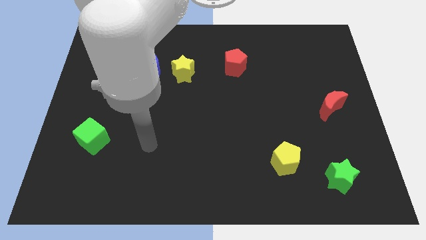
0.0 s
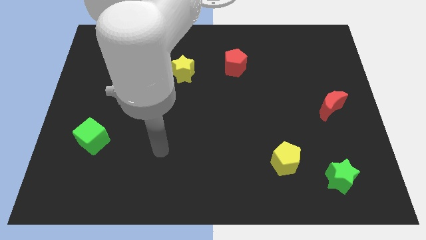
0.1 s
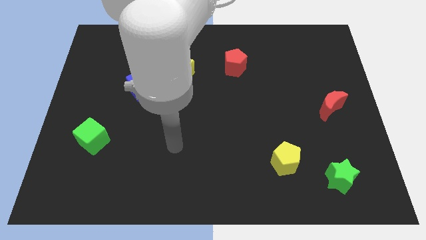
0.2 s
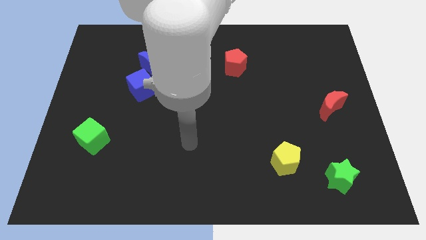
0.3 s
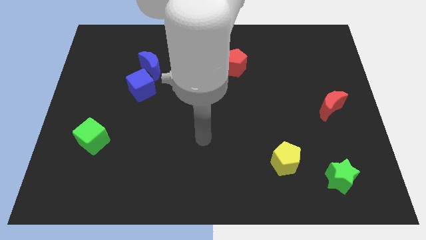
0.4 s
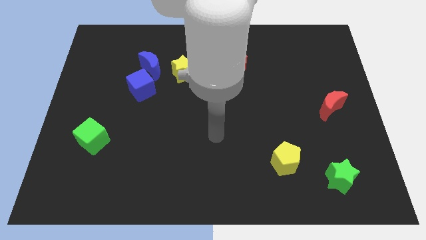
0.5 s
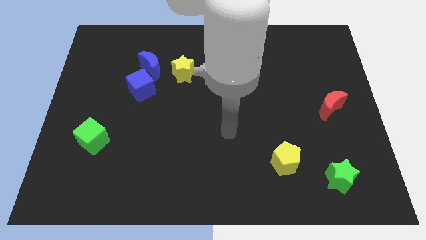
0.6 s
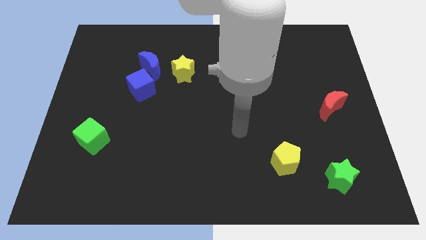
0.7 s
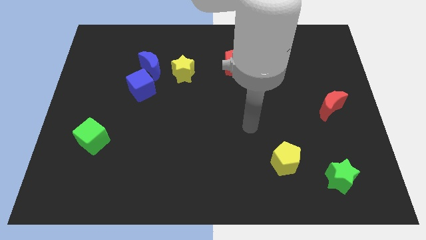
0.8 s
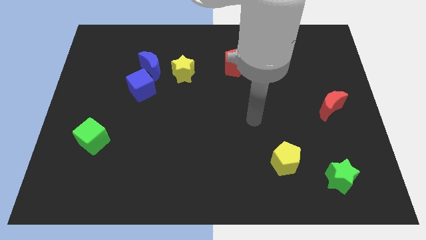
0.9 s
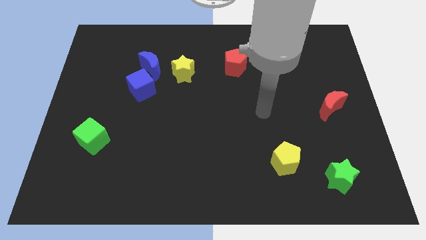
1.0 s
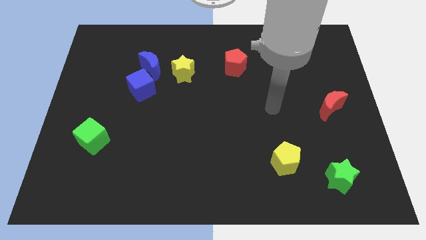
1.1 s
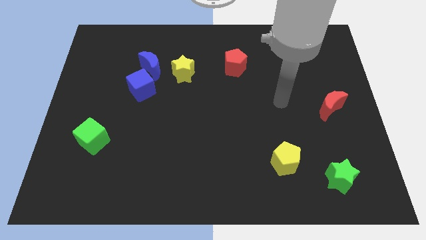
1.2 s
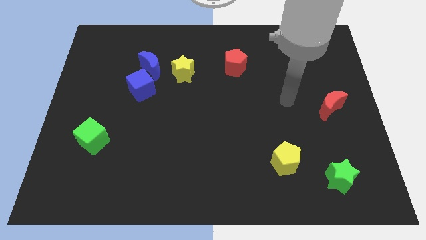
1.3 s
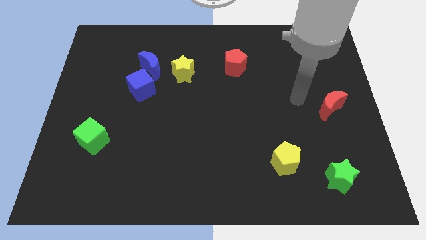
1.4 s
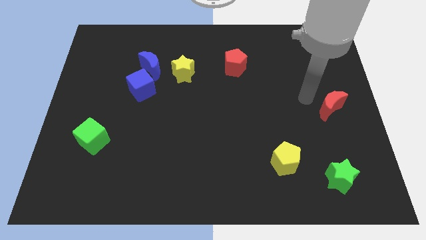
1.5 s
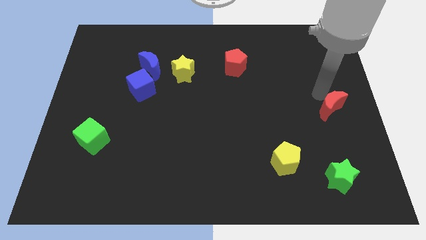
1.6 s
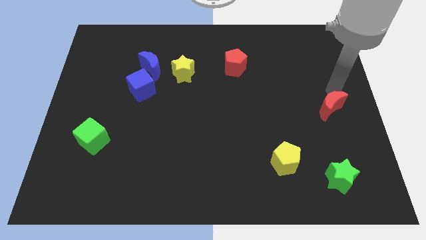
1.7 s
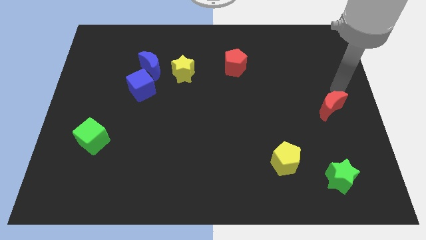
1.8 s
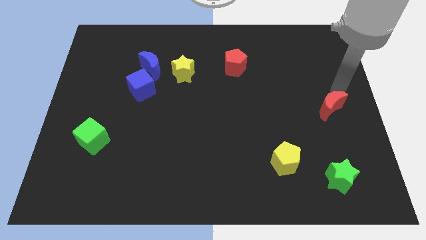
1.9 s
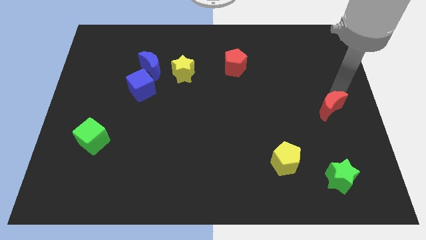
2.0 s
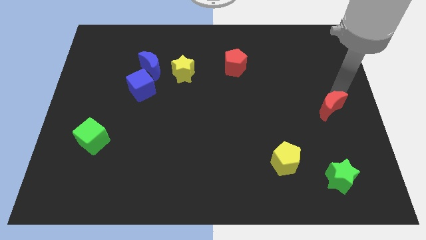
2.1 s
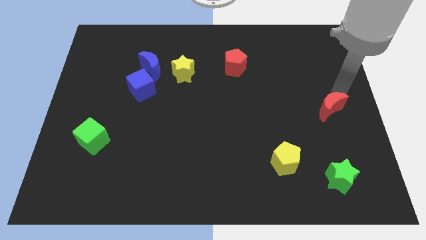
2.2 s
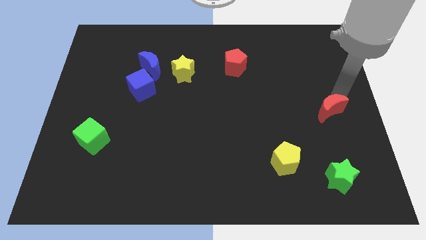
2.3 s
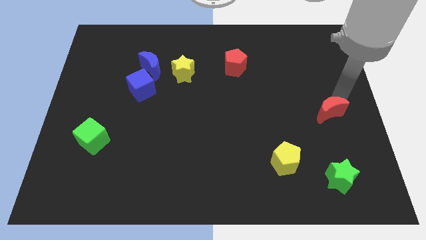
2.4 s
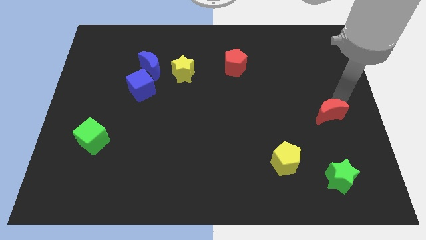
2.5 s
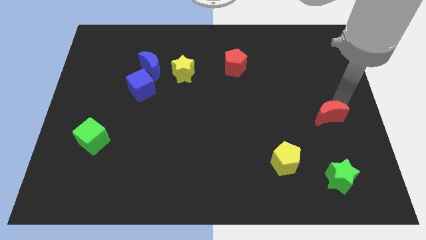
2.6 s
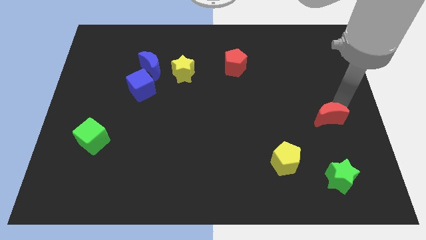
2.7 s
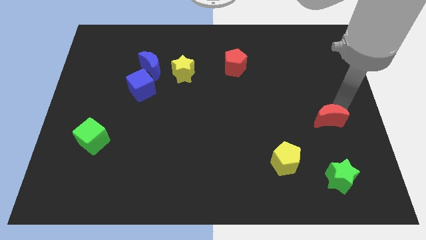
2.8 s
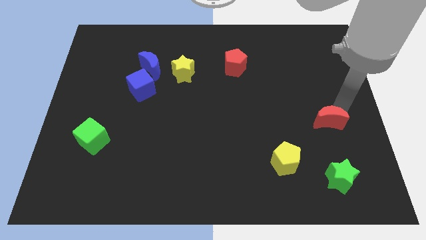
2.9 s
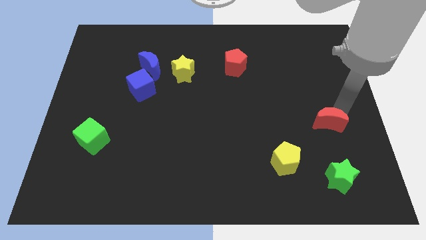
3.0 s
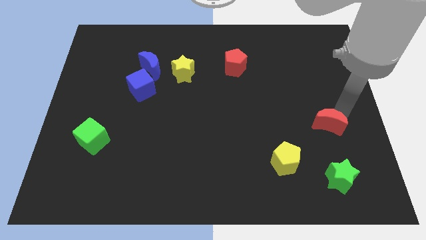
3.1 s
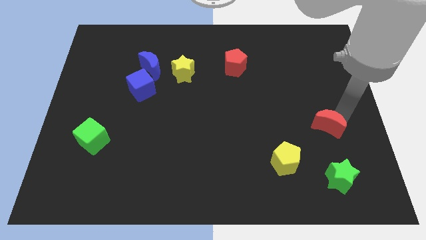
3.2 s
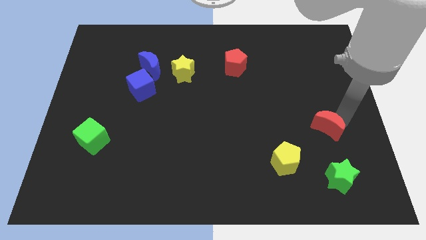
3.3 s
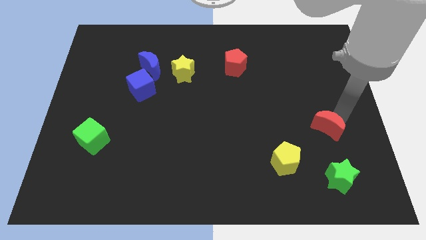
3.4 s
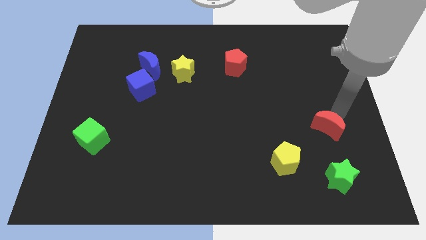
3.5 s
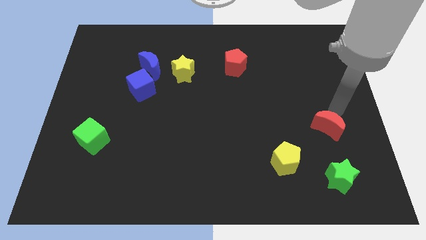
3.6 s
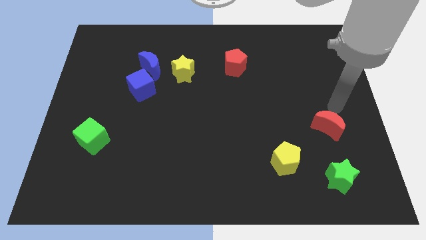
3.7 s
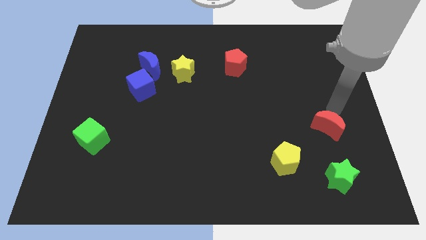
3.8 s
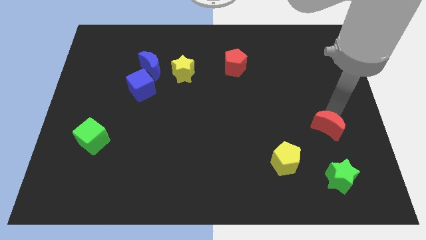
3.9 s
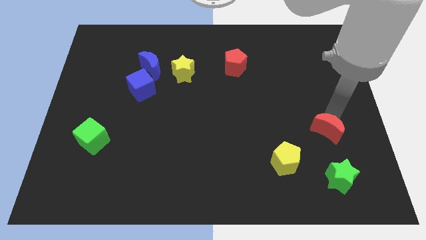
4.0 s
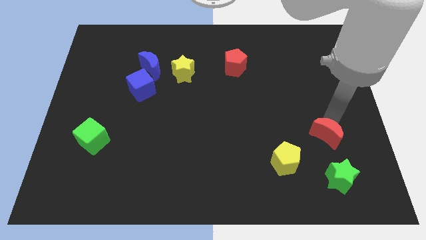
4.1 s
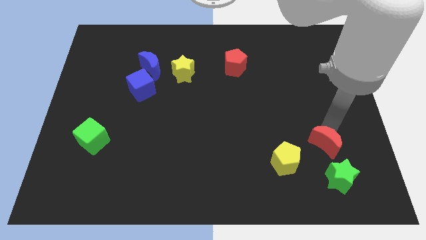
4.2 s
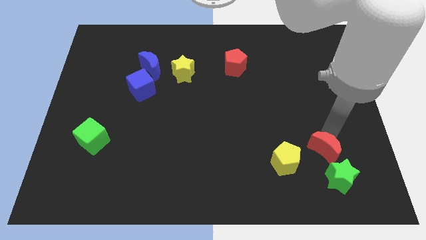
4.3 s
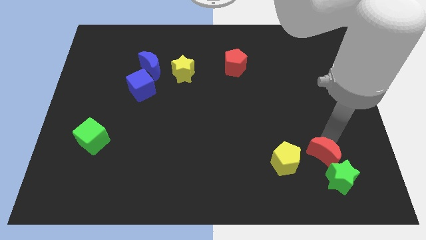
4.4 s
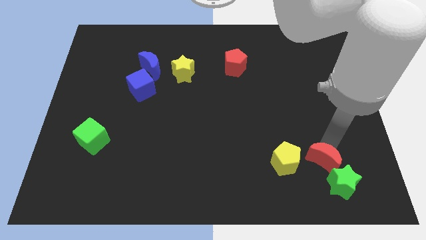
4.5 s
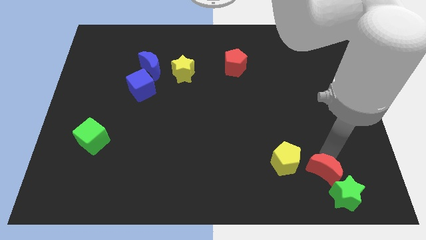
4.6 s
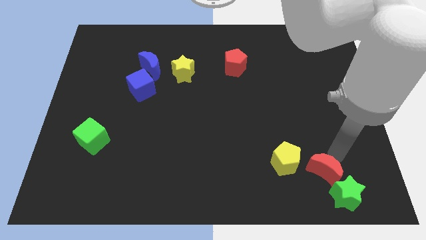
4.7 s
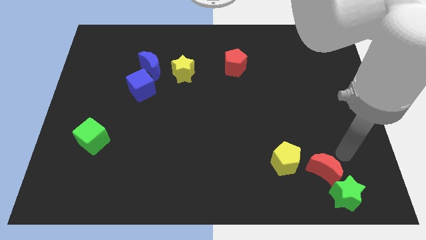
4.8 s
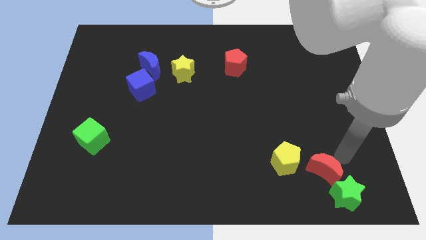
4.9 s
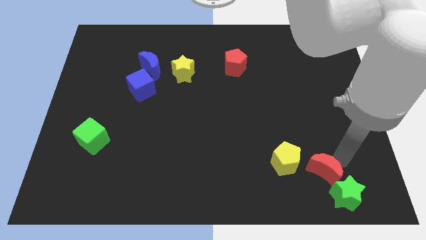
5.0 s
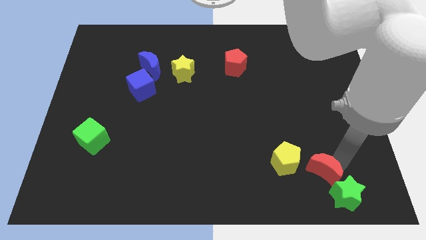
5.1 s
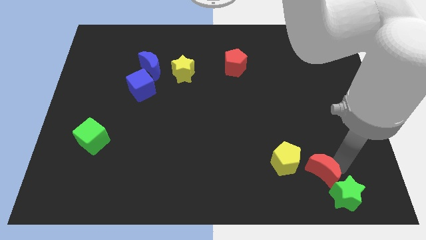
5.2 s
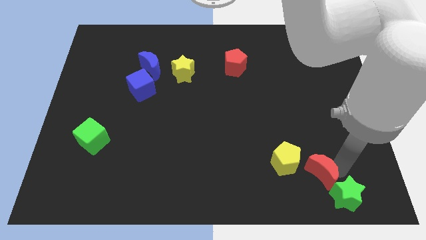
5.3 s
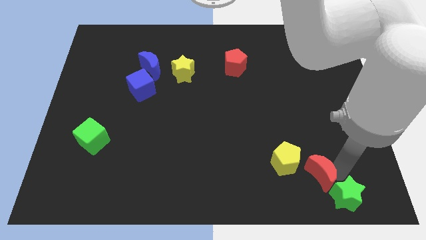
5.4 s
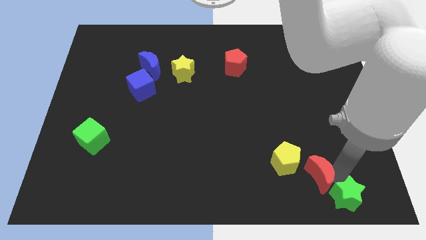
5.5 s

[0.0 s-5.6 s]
push the red moon to the left side of the green star

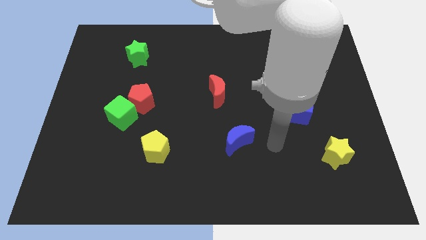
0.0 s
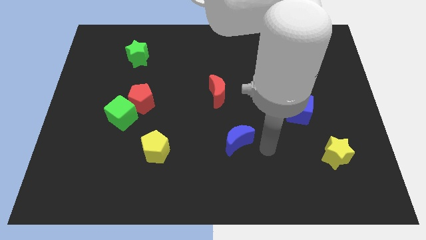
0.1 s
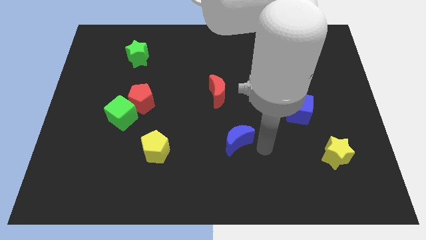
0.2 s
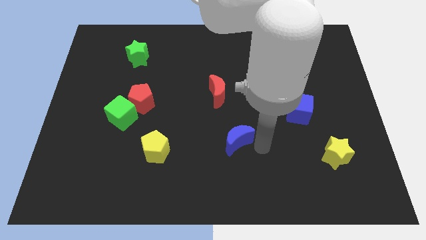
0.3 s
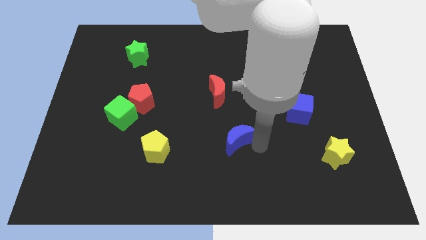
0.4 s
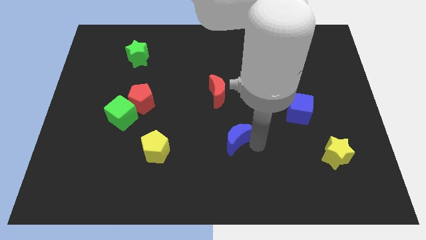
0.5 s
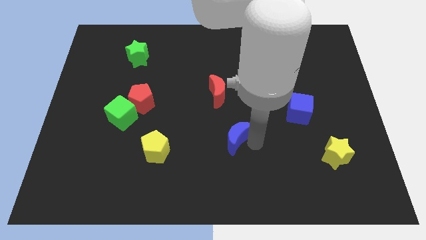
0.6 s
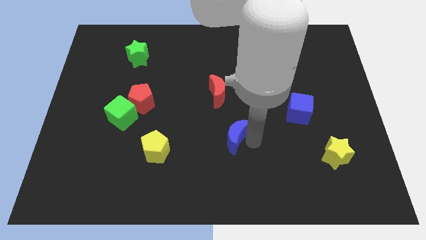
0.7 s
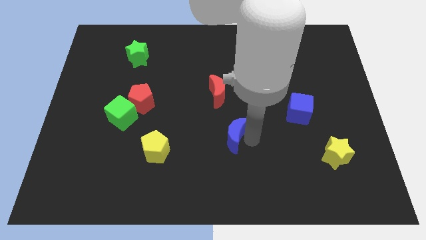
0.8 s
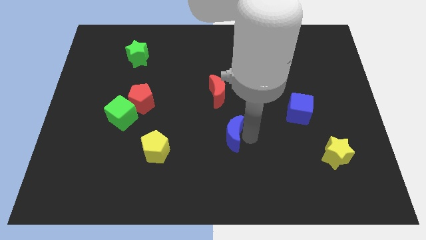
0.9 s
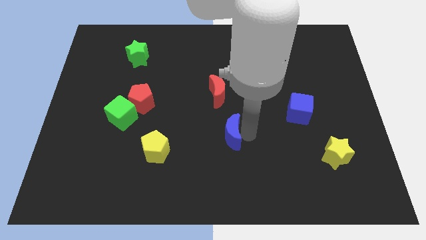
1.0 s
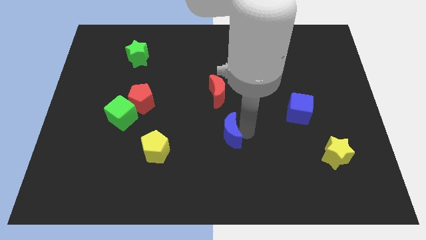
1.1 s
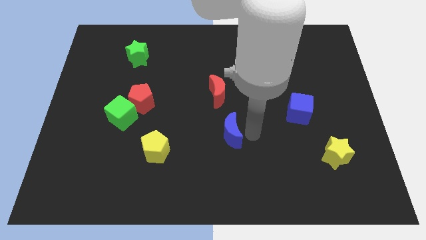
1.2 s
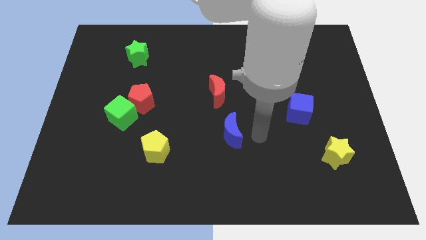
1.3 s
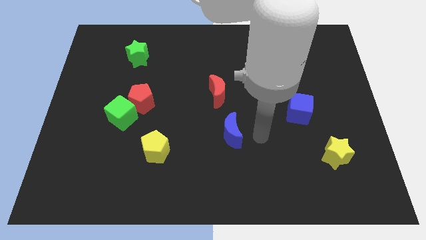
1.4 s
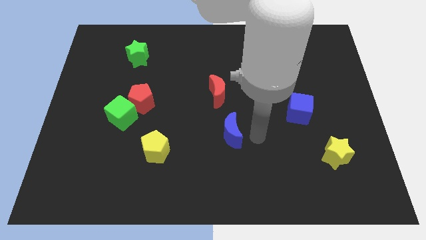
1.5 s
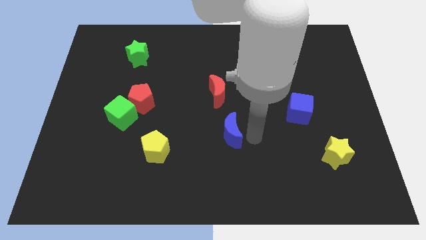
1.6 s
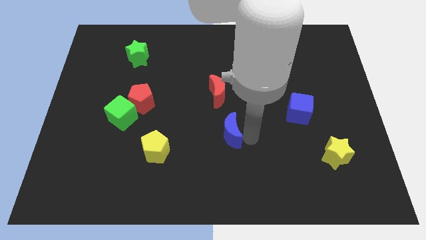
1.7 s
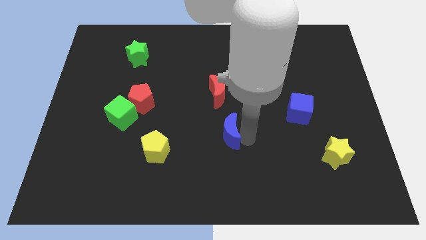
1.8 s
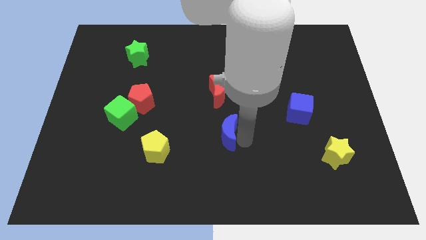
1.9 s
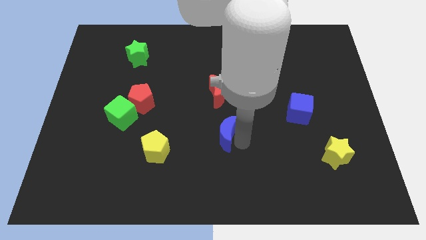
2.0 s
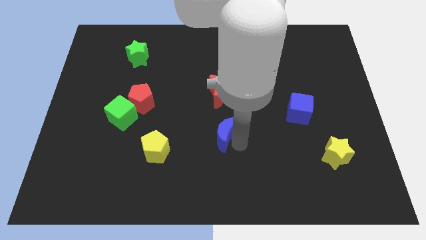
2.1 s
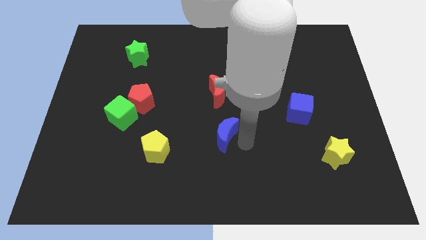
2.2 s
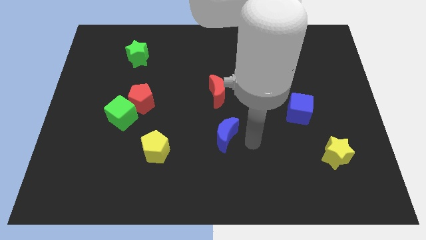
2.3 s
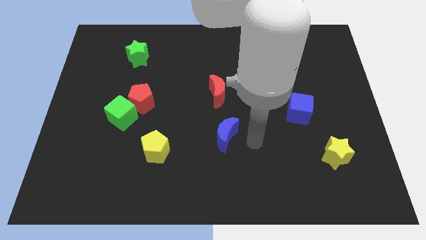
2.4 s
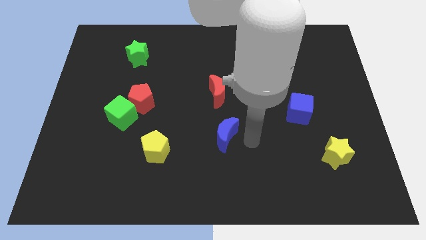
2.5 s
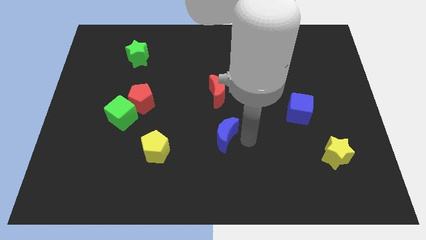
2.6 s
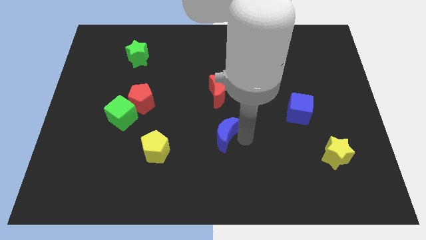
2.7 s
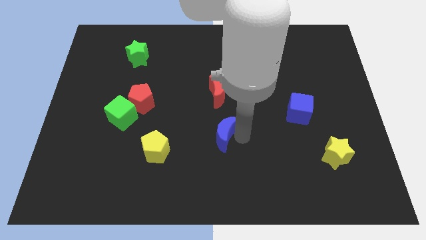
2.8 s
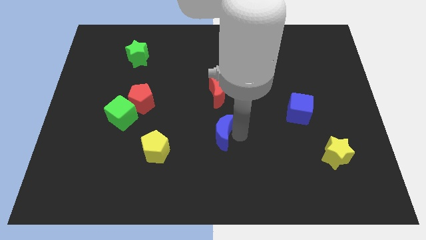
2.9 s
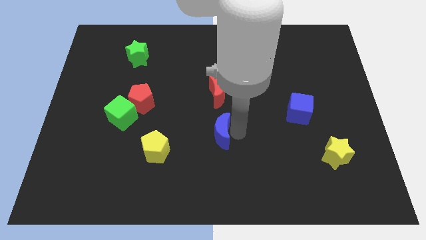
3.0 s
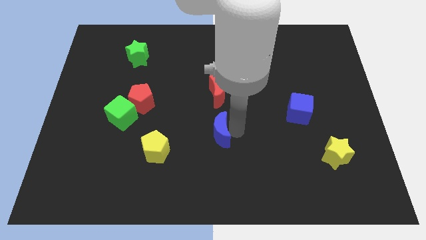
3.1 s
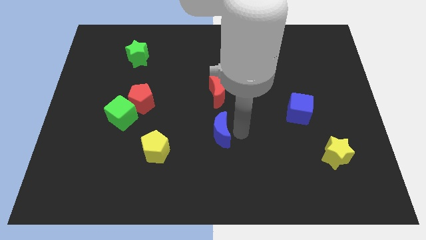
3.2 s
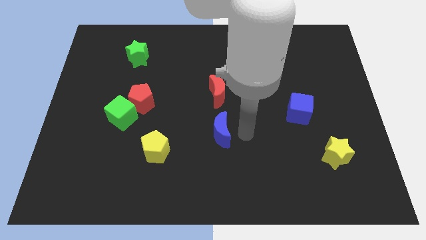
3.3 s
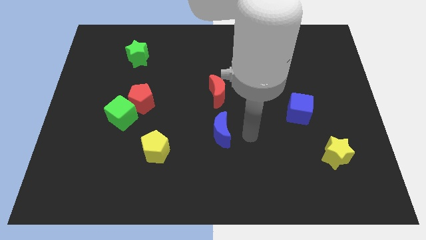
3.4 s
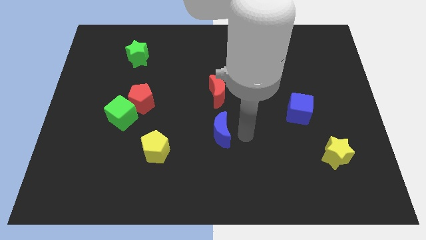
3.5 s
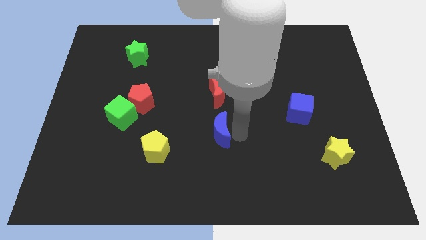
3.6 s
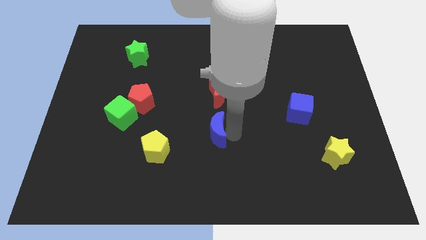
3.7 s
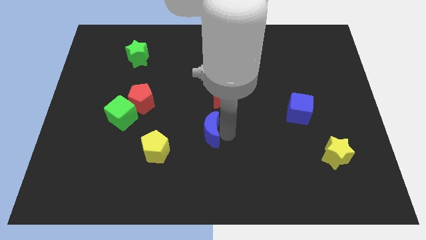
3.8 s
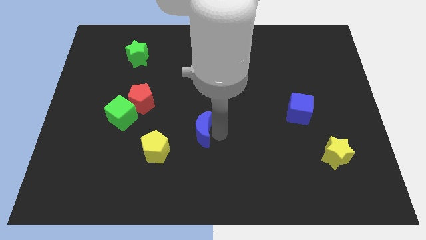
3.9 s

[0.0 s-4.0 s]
slide the blue moon diagonally up and to the right of the yellow pentagon
